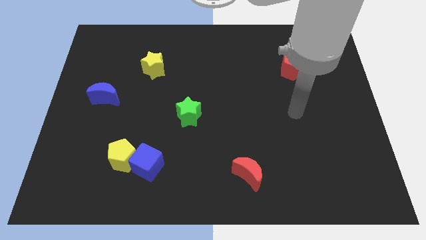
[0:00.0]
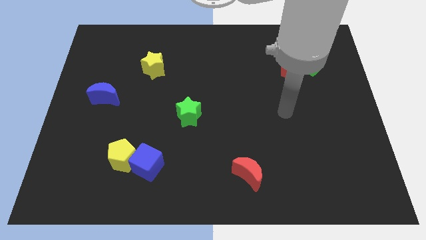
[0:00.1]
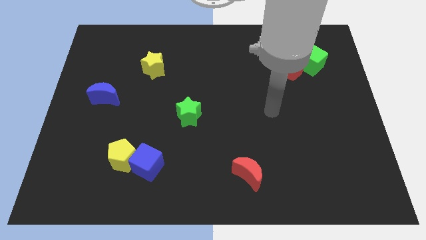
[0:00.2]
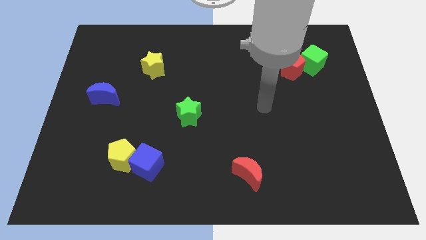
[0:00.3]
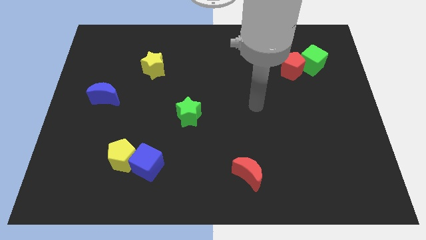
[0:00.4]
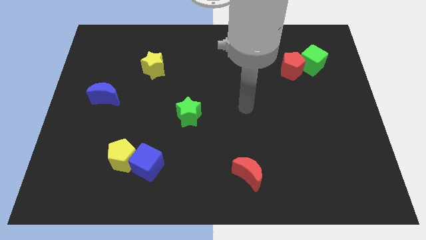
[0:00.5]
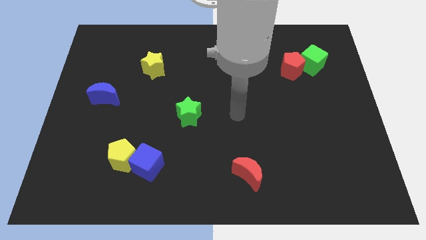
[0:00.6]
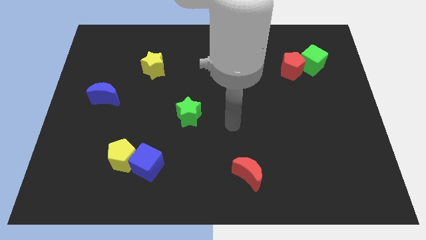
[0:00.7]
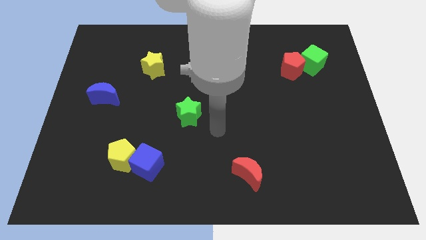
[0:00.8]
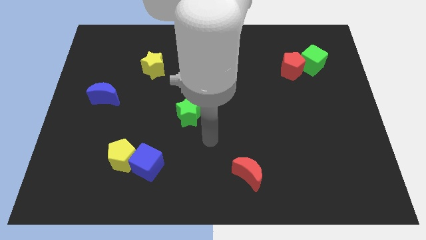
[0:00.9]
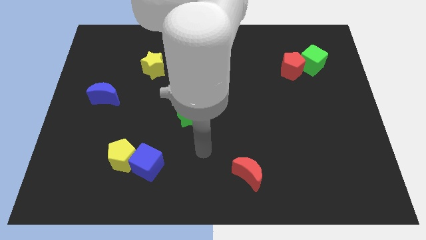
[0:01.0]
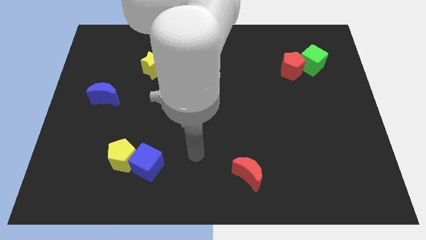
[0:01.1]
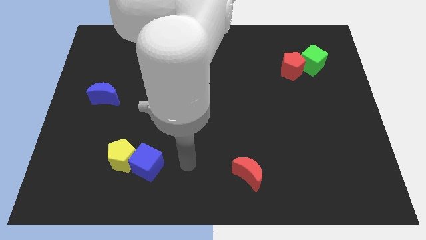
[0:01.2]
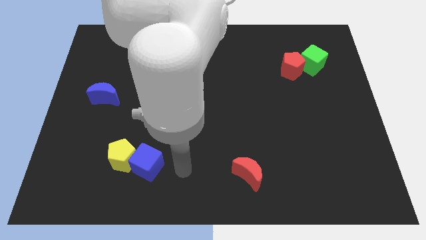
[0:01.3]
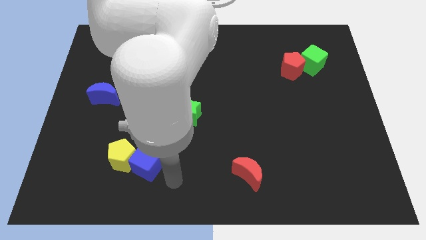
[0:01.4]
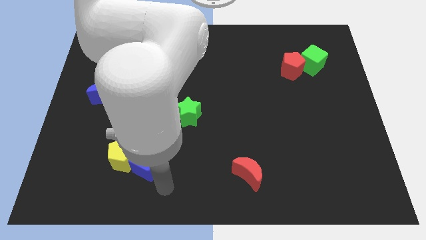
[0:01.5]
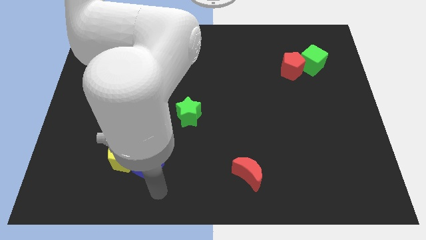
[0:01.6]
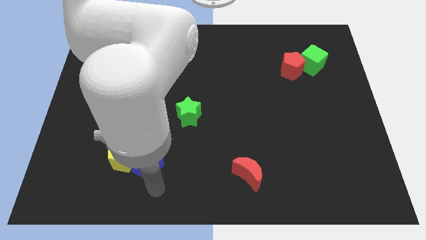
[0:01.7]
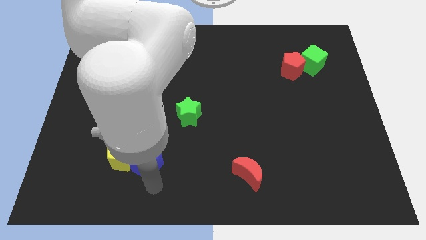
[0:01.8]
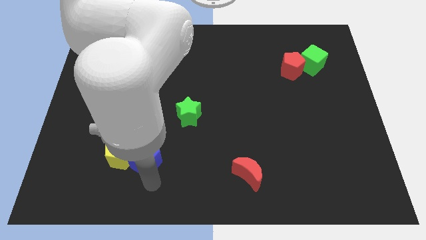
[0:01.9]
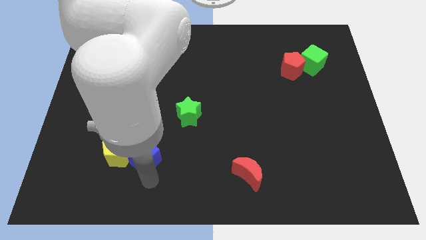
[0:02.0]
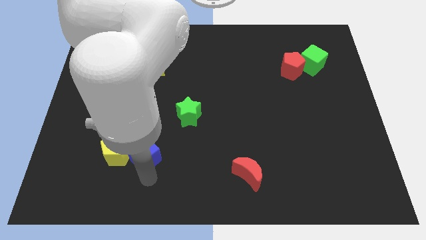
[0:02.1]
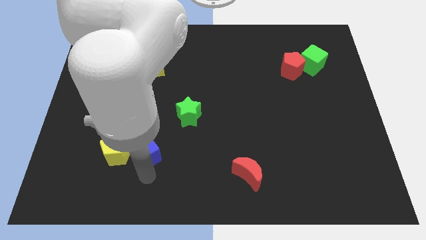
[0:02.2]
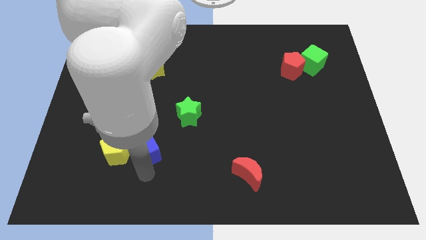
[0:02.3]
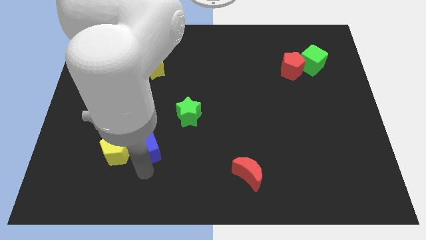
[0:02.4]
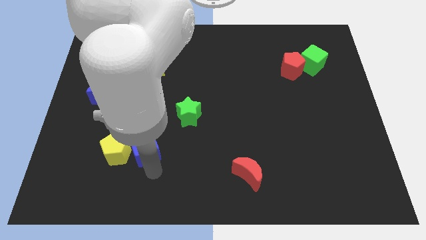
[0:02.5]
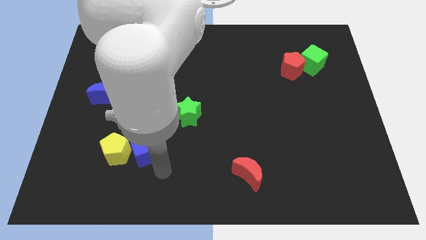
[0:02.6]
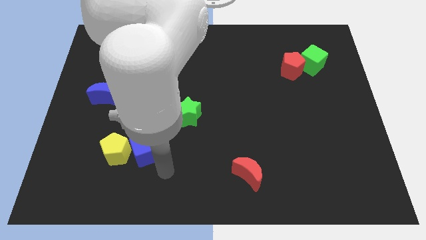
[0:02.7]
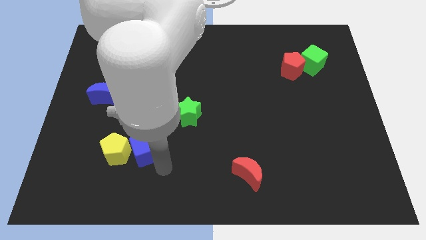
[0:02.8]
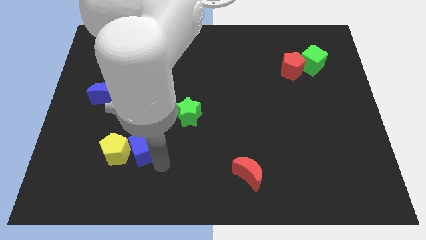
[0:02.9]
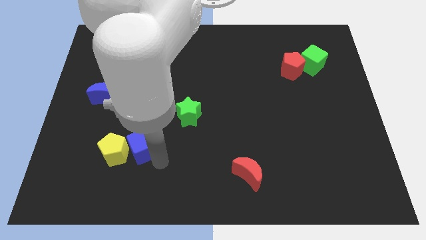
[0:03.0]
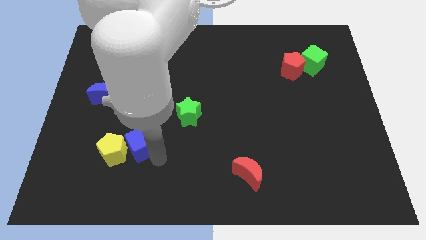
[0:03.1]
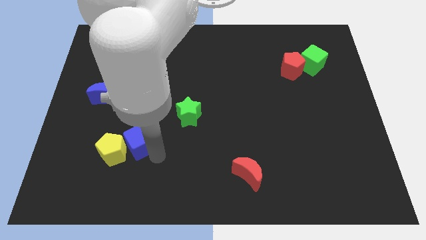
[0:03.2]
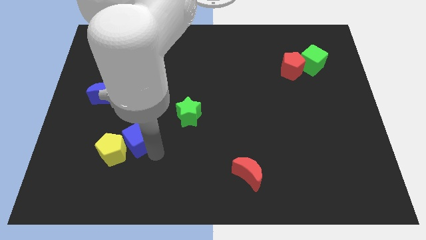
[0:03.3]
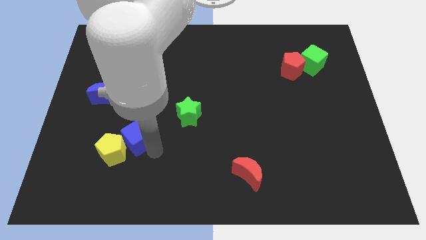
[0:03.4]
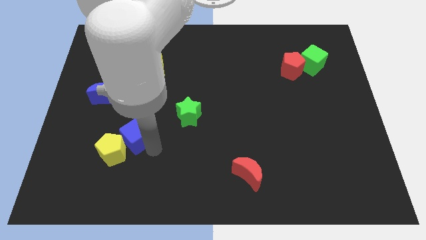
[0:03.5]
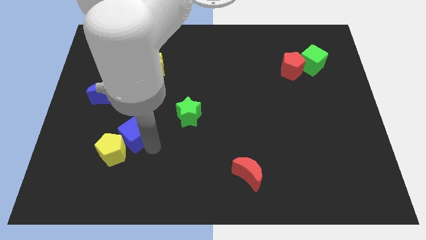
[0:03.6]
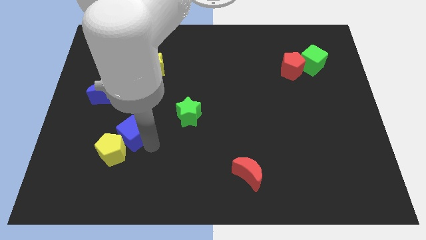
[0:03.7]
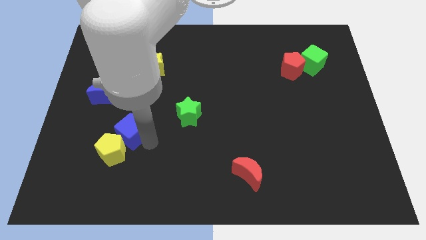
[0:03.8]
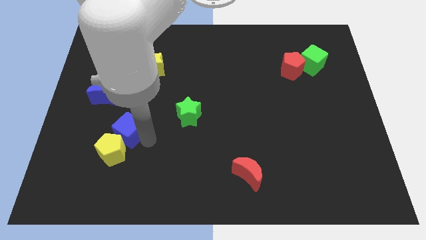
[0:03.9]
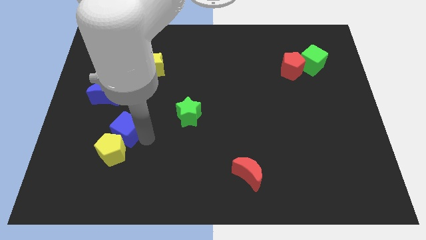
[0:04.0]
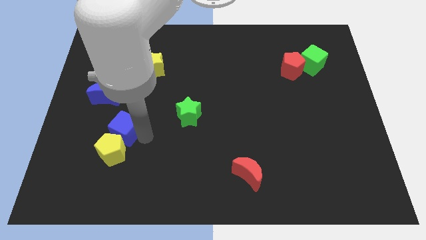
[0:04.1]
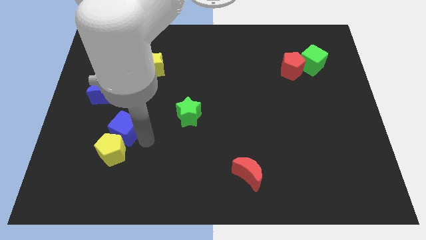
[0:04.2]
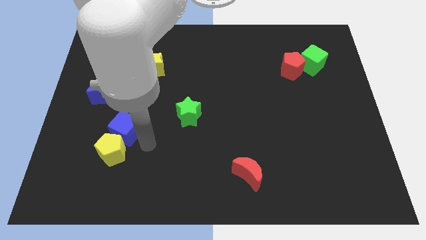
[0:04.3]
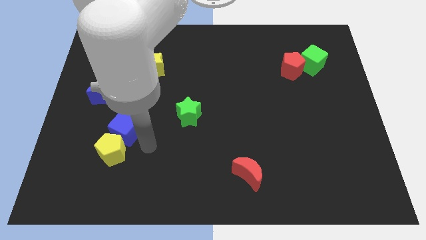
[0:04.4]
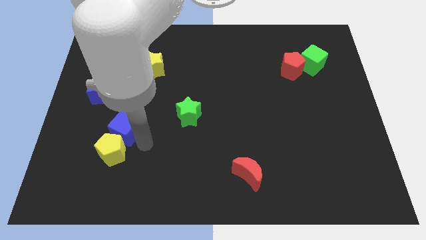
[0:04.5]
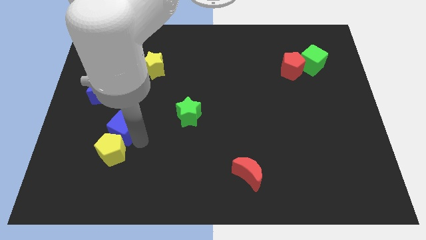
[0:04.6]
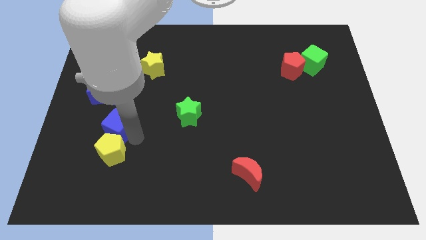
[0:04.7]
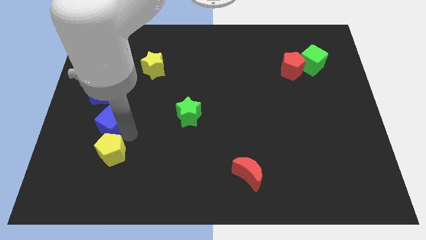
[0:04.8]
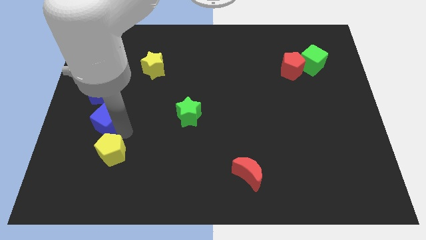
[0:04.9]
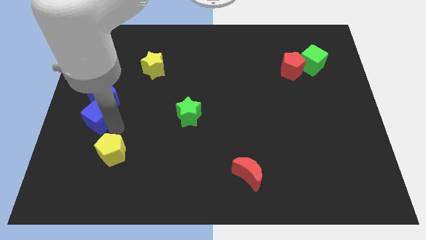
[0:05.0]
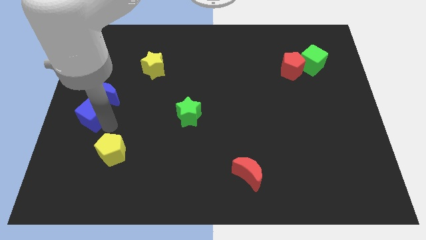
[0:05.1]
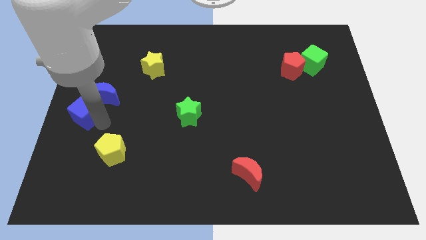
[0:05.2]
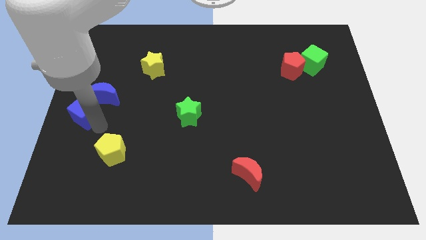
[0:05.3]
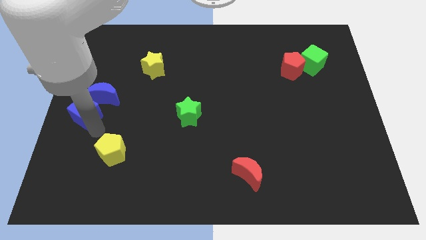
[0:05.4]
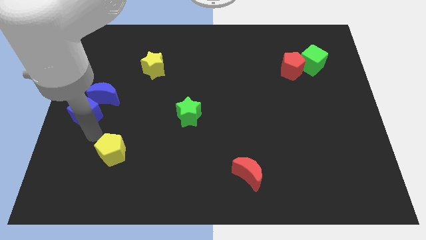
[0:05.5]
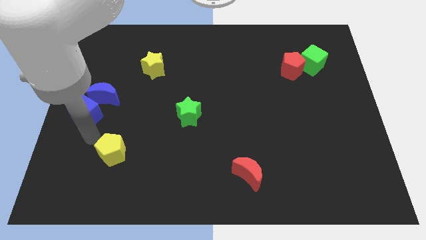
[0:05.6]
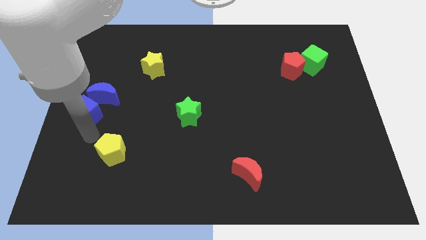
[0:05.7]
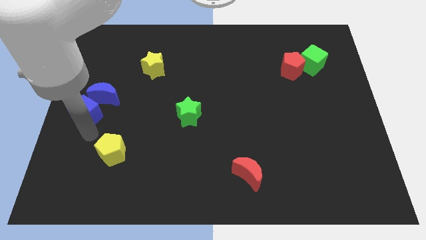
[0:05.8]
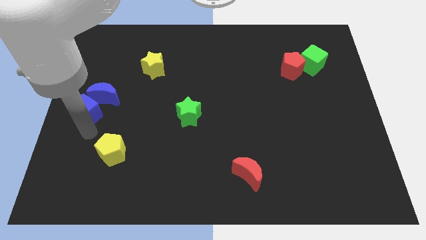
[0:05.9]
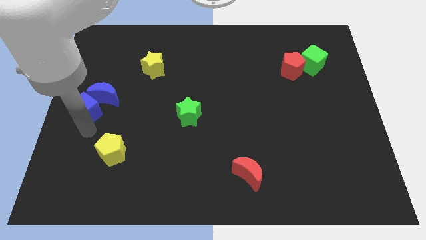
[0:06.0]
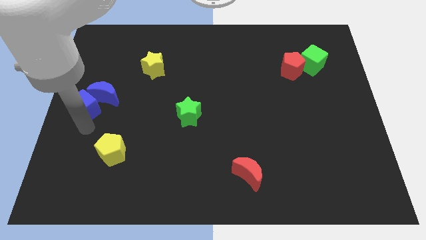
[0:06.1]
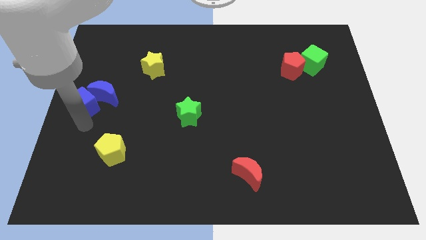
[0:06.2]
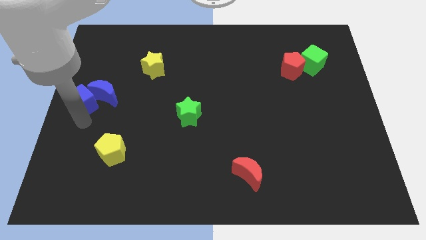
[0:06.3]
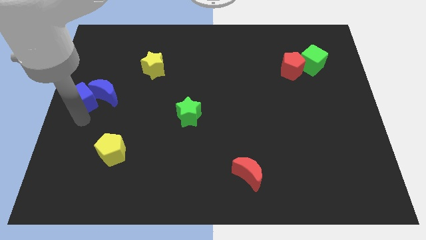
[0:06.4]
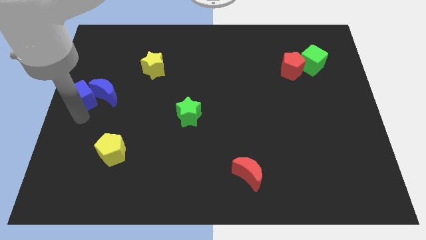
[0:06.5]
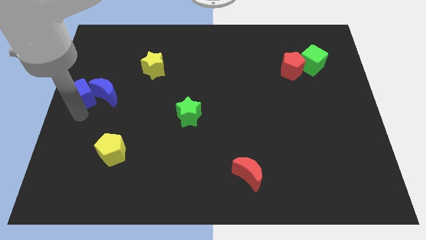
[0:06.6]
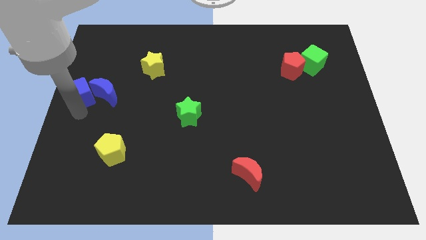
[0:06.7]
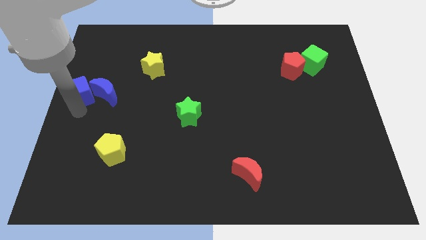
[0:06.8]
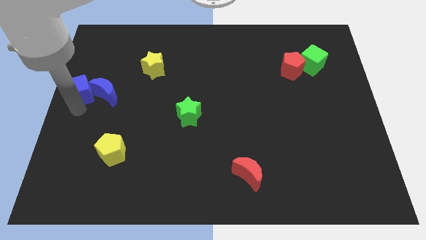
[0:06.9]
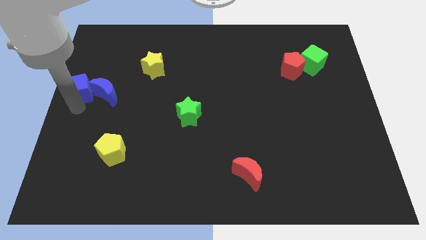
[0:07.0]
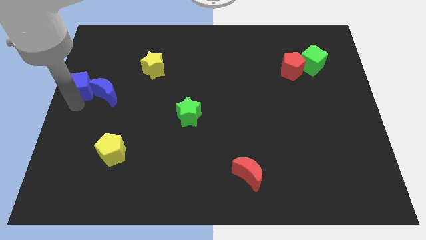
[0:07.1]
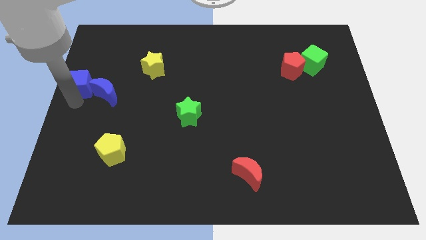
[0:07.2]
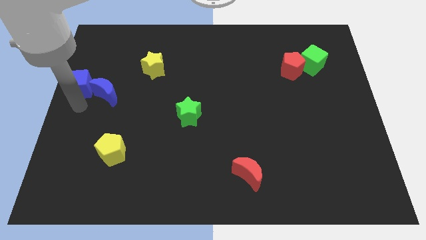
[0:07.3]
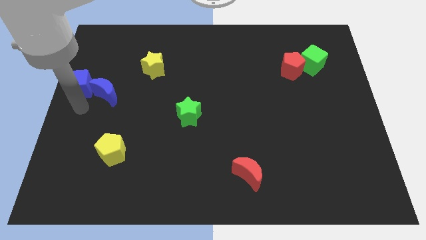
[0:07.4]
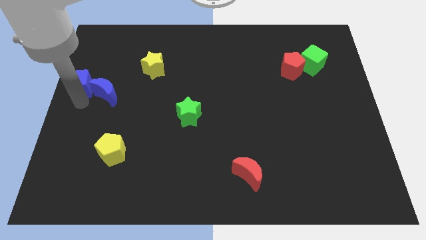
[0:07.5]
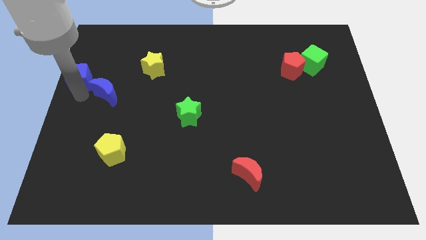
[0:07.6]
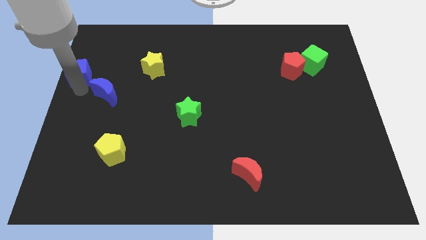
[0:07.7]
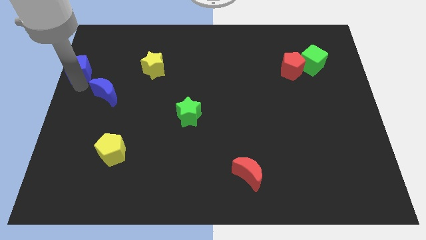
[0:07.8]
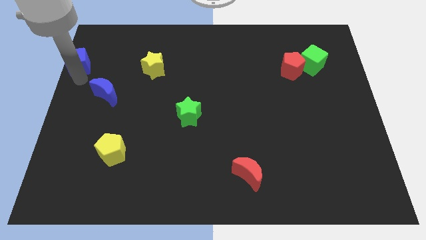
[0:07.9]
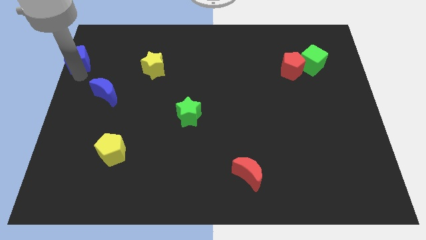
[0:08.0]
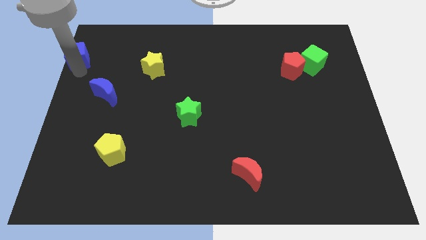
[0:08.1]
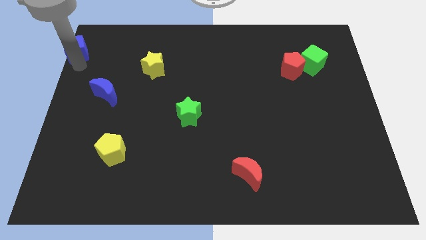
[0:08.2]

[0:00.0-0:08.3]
push the blue cube to the top left of the board
